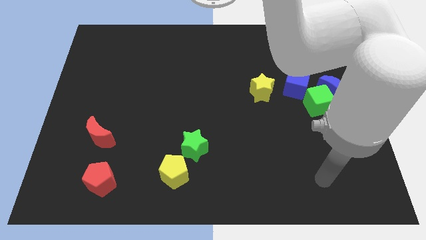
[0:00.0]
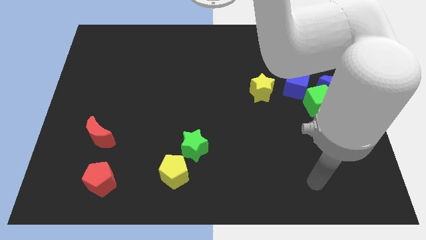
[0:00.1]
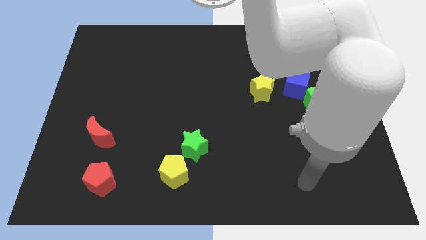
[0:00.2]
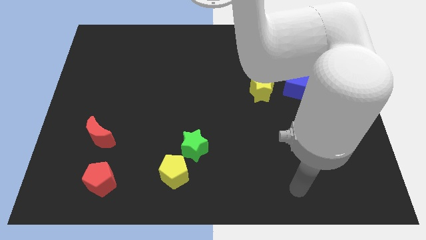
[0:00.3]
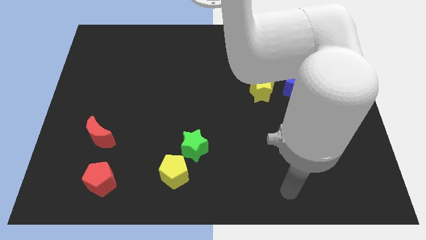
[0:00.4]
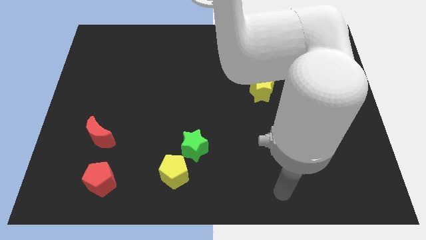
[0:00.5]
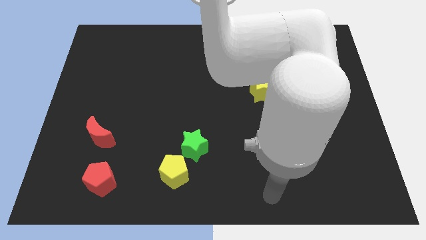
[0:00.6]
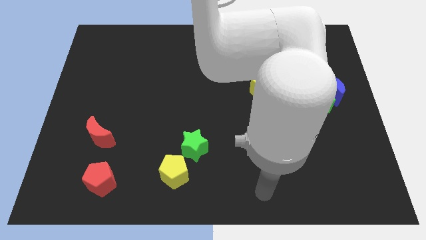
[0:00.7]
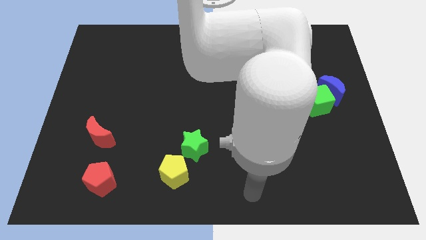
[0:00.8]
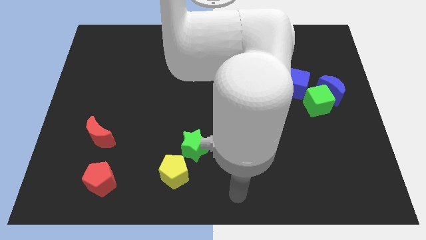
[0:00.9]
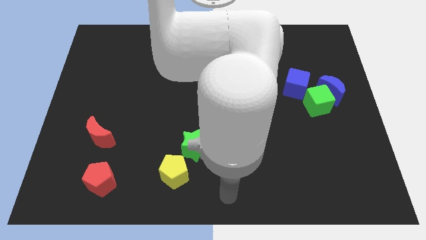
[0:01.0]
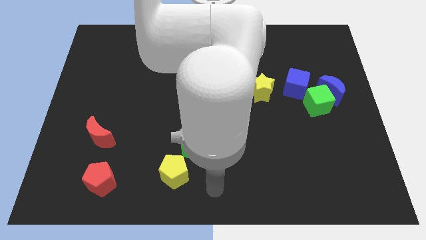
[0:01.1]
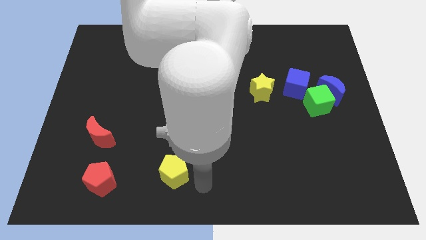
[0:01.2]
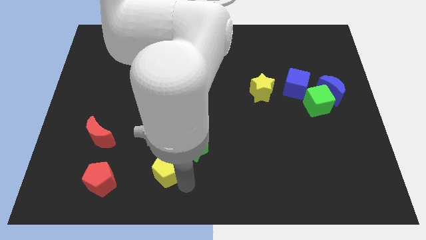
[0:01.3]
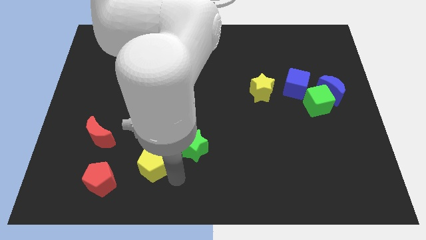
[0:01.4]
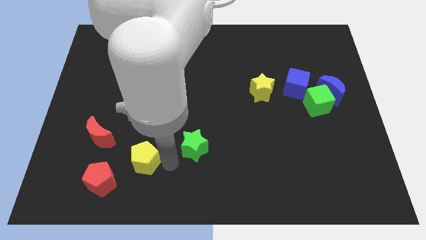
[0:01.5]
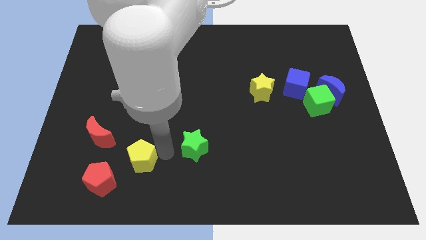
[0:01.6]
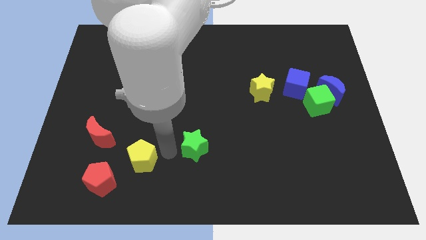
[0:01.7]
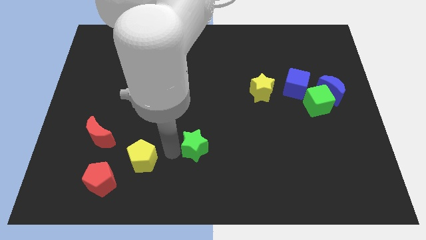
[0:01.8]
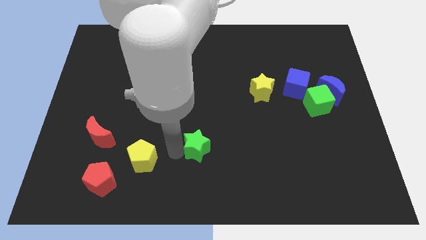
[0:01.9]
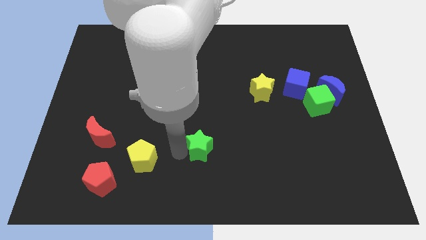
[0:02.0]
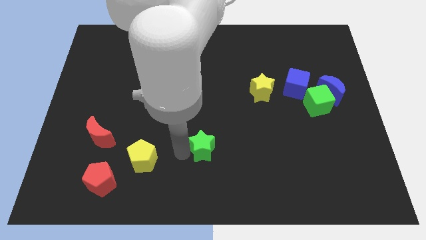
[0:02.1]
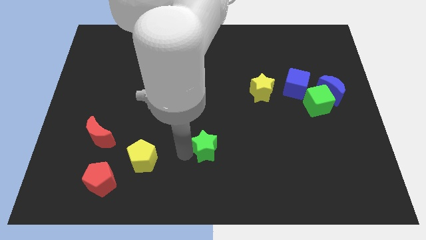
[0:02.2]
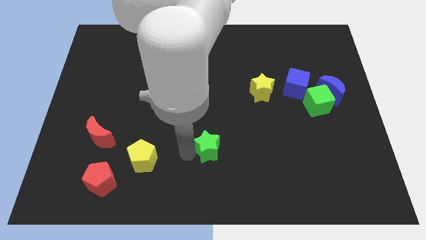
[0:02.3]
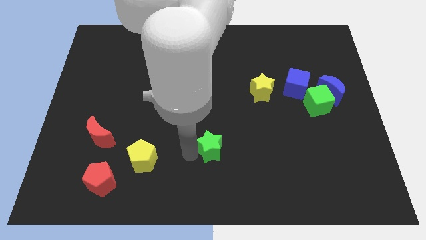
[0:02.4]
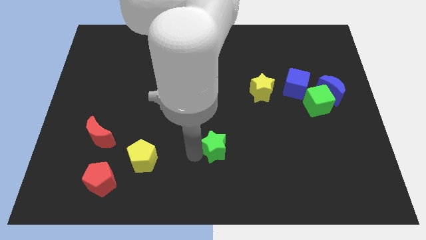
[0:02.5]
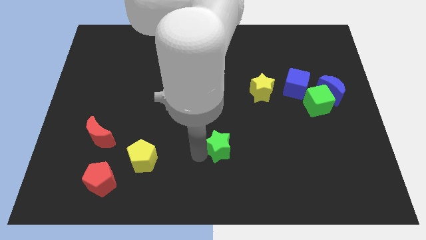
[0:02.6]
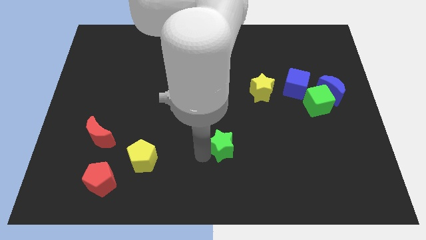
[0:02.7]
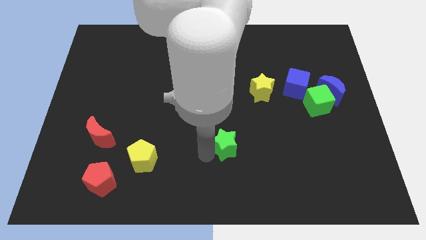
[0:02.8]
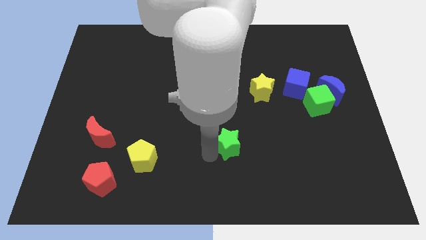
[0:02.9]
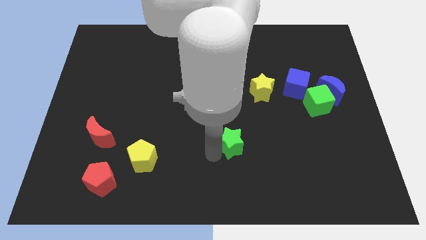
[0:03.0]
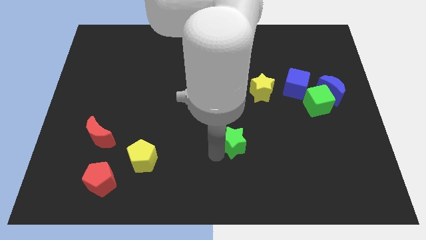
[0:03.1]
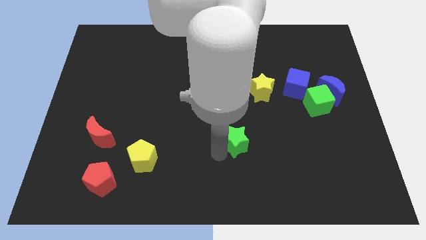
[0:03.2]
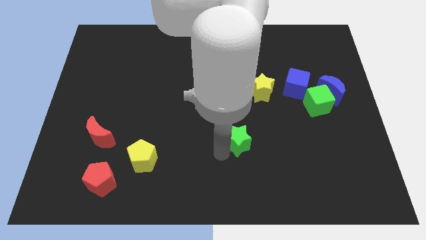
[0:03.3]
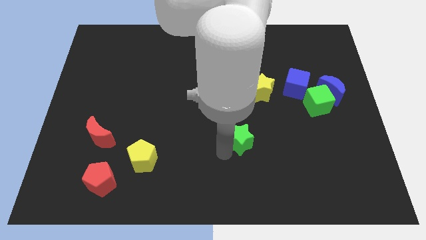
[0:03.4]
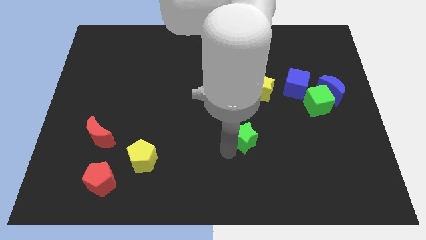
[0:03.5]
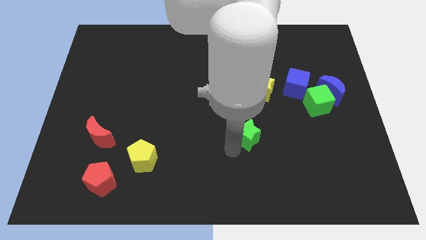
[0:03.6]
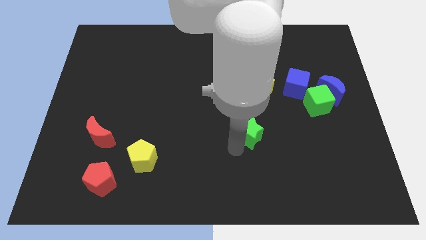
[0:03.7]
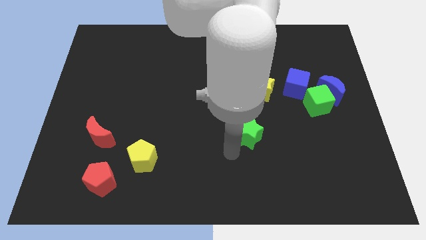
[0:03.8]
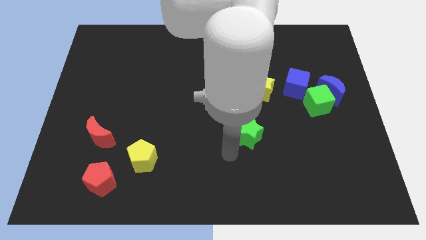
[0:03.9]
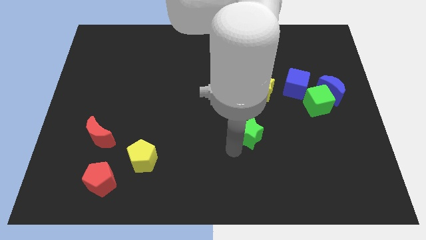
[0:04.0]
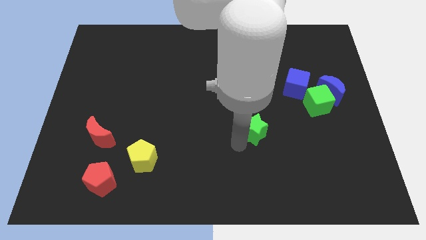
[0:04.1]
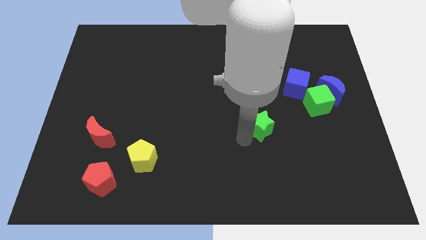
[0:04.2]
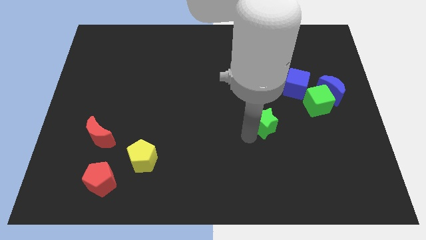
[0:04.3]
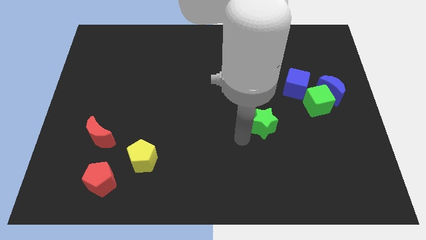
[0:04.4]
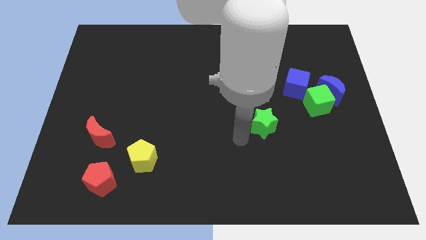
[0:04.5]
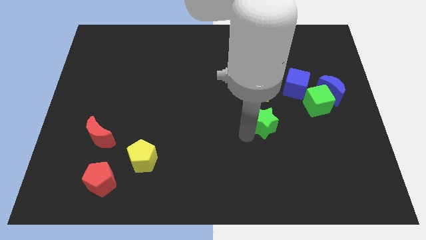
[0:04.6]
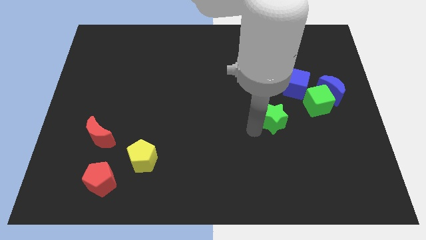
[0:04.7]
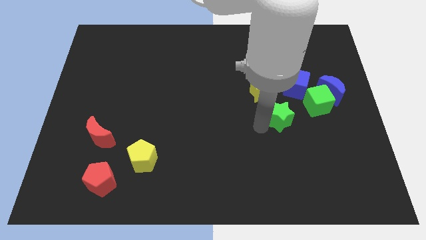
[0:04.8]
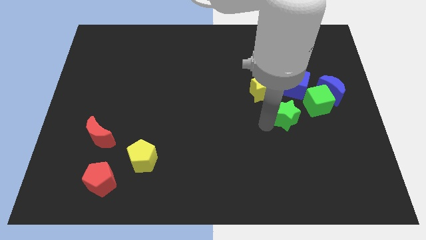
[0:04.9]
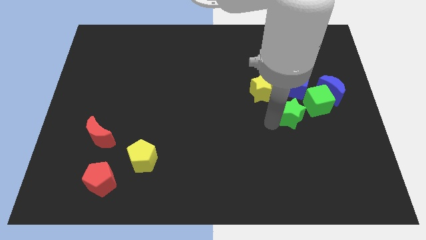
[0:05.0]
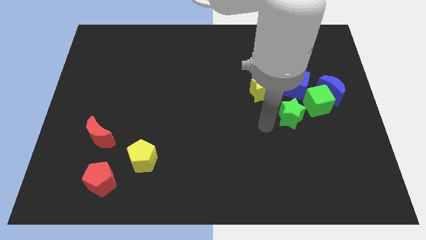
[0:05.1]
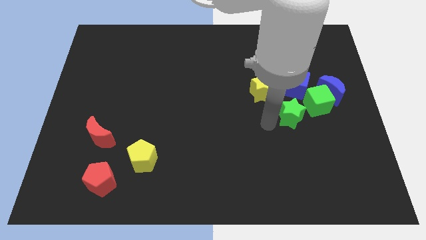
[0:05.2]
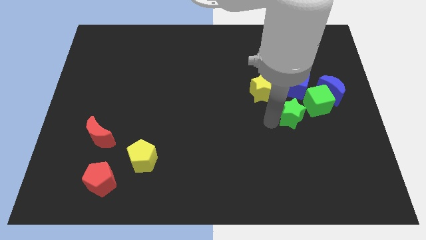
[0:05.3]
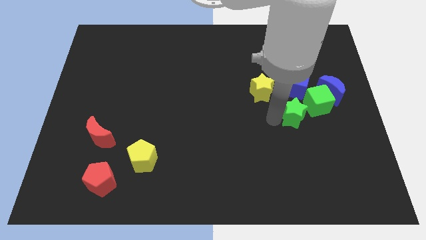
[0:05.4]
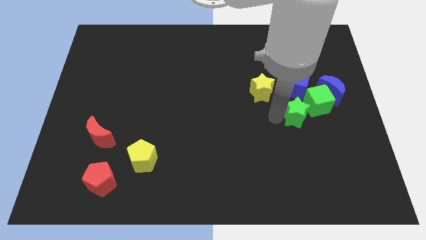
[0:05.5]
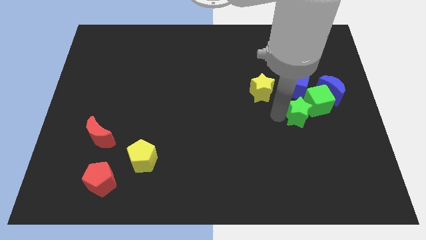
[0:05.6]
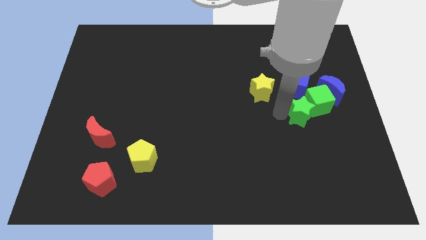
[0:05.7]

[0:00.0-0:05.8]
push the green star to the green cube

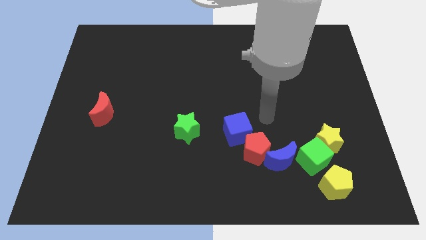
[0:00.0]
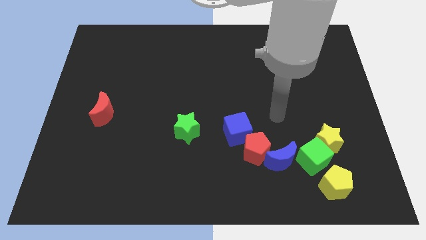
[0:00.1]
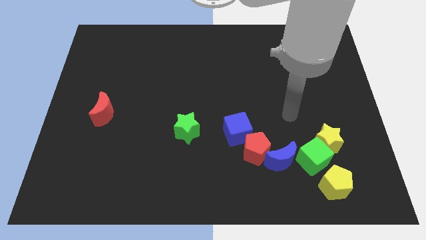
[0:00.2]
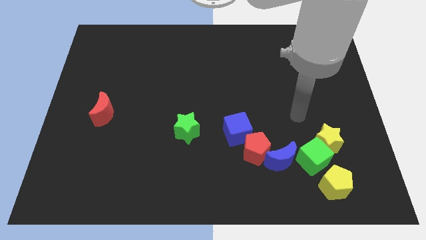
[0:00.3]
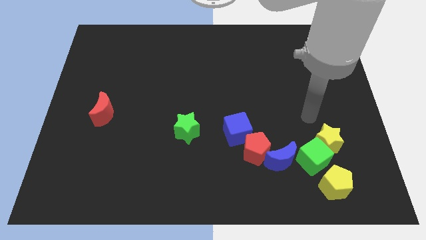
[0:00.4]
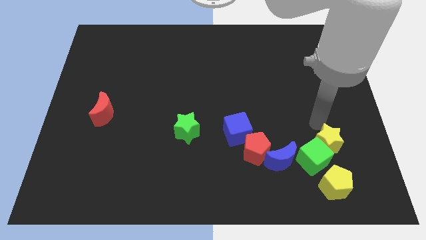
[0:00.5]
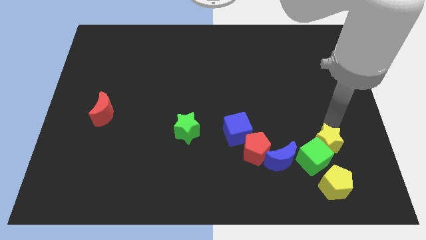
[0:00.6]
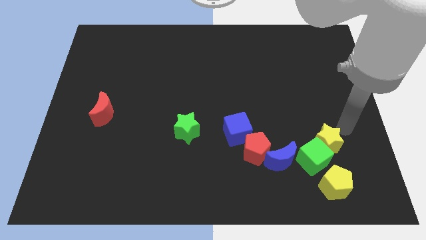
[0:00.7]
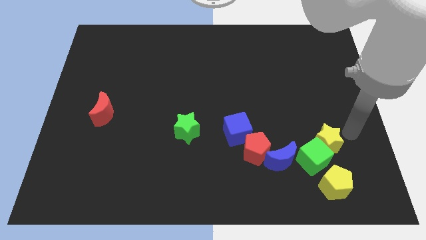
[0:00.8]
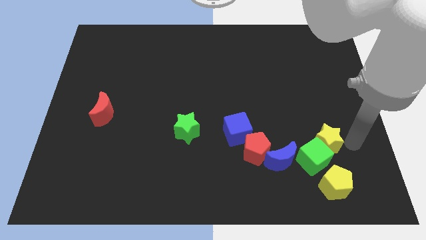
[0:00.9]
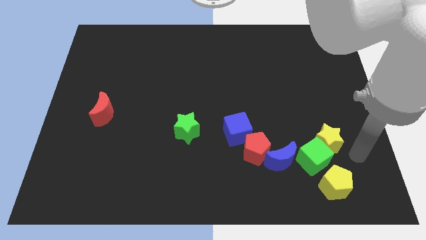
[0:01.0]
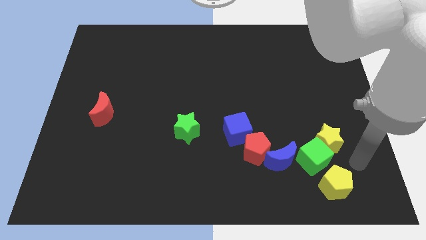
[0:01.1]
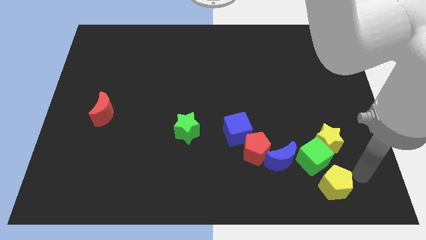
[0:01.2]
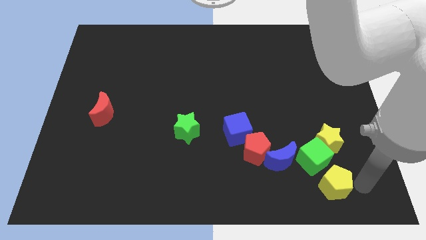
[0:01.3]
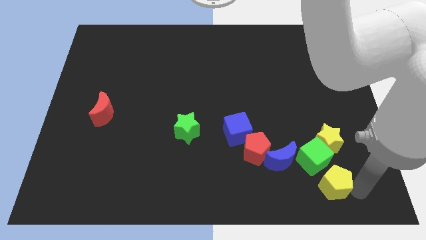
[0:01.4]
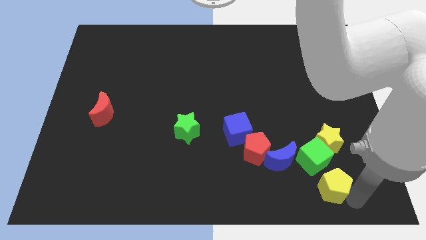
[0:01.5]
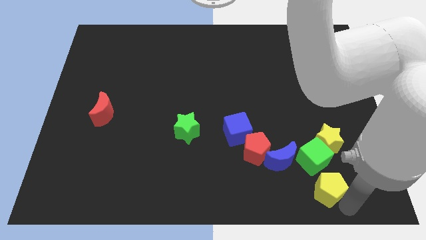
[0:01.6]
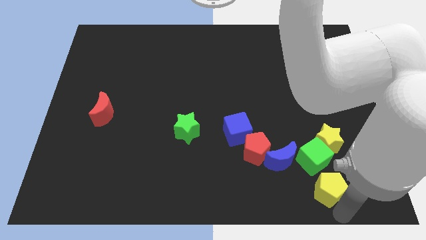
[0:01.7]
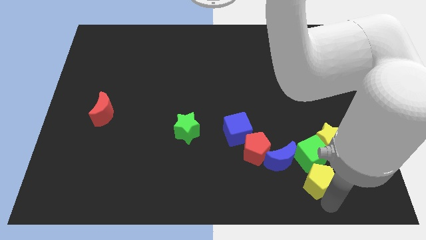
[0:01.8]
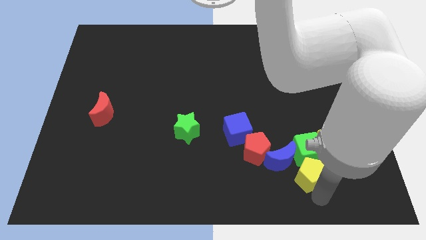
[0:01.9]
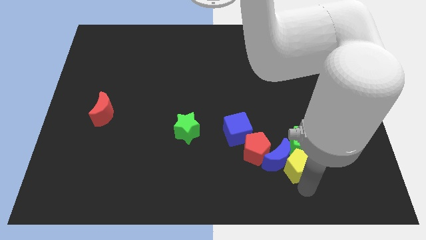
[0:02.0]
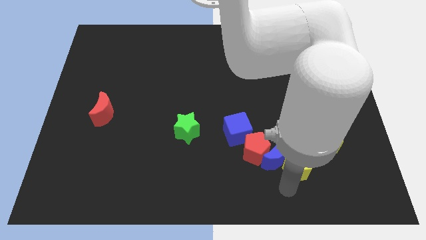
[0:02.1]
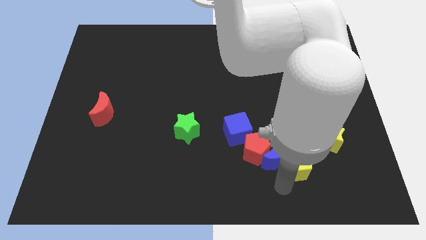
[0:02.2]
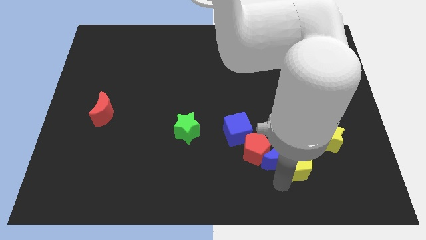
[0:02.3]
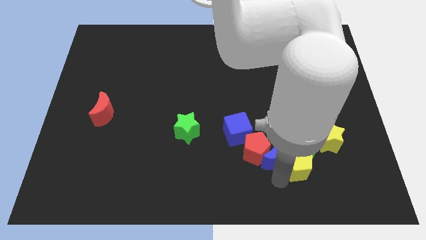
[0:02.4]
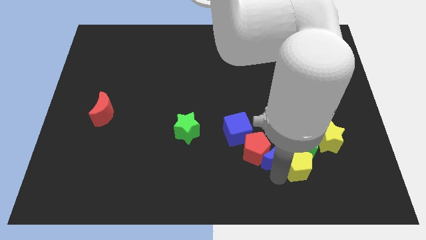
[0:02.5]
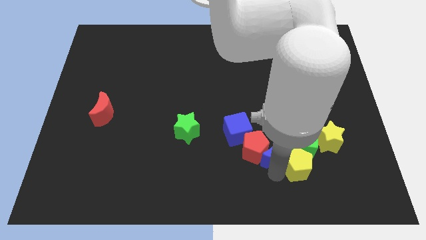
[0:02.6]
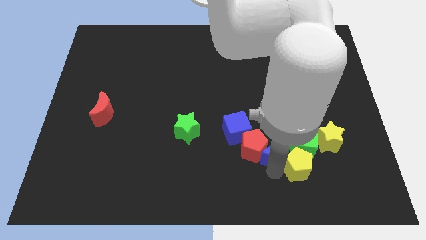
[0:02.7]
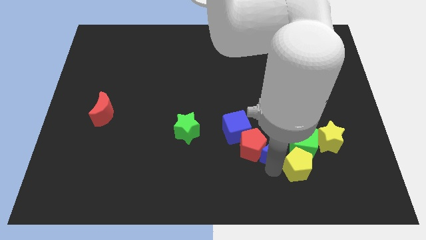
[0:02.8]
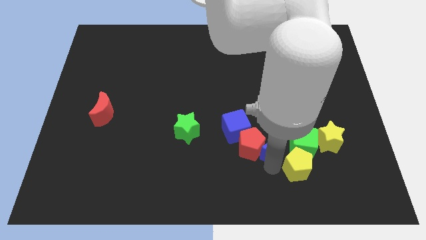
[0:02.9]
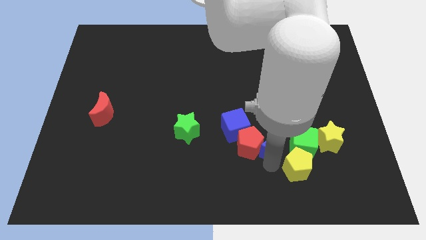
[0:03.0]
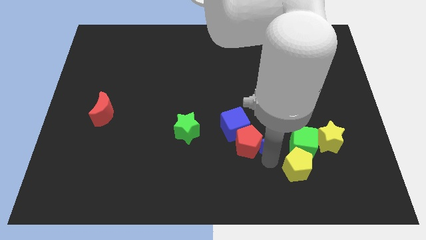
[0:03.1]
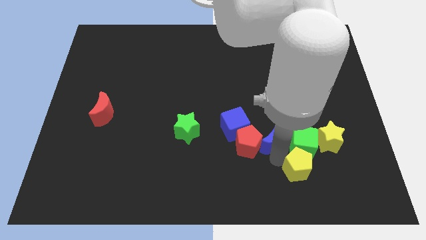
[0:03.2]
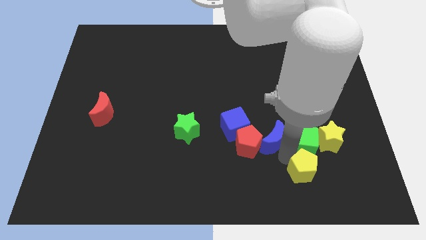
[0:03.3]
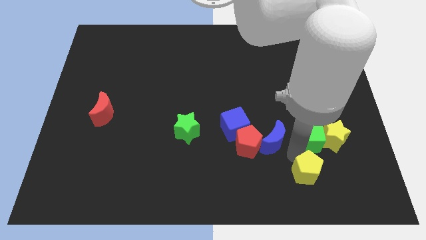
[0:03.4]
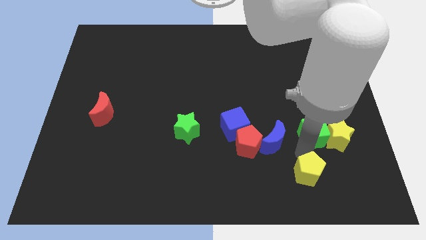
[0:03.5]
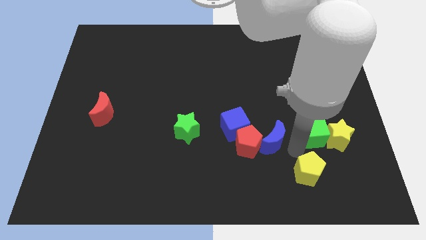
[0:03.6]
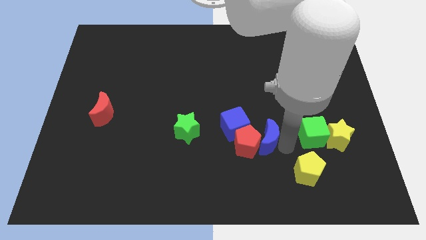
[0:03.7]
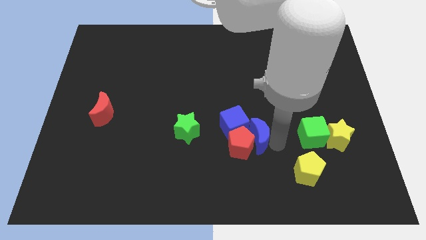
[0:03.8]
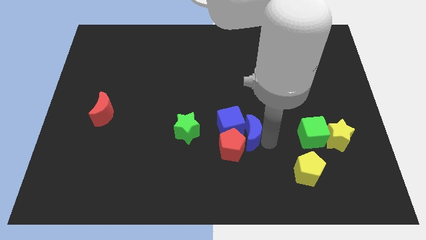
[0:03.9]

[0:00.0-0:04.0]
push the blue moon to the blue cube
